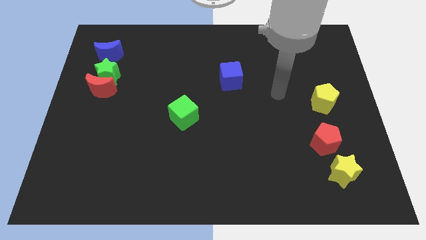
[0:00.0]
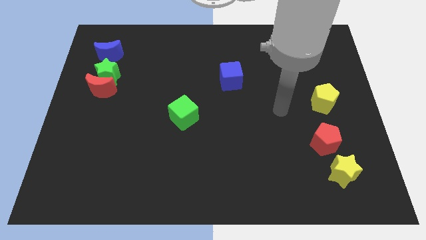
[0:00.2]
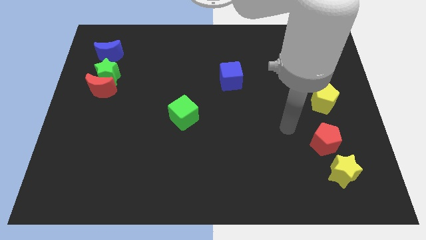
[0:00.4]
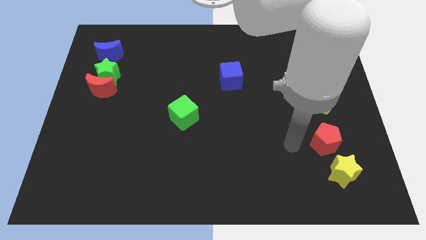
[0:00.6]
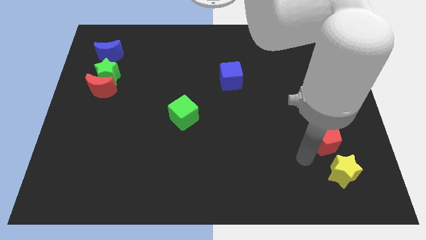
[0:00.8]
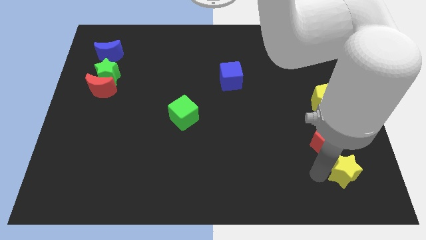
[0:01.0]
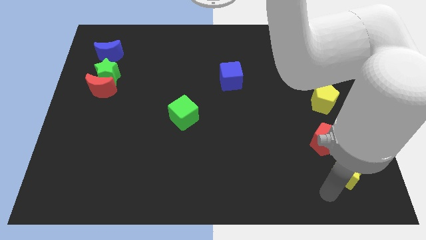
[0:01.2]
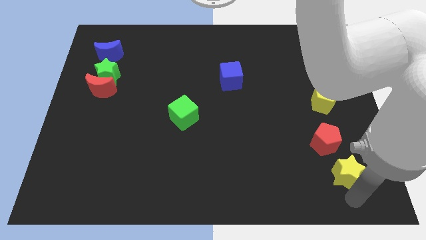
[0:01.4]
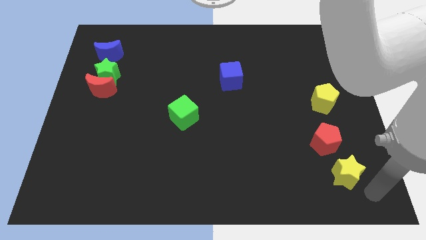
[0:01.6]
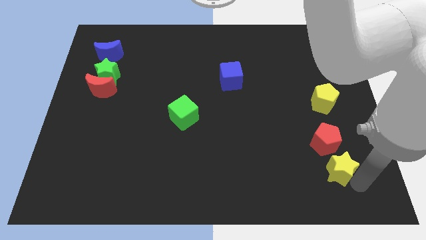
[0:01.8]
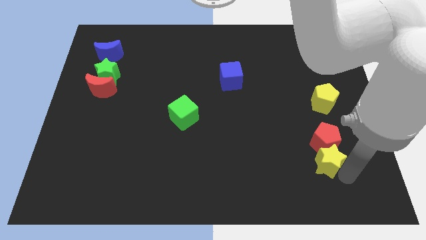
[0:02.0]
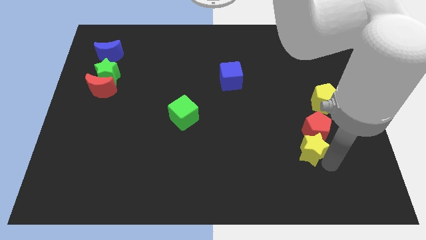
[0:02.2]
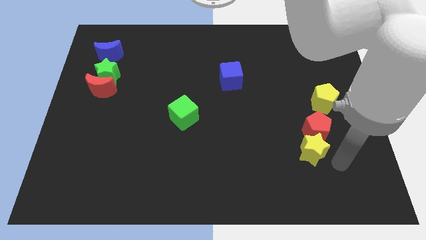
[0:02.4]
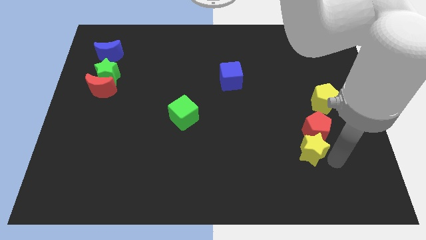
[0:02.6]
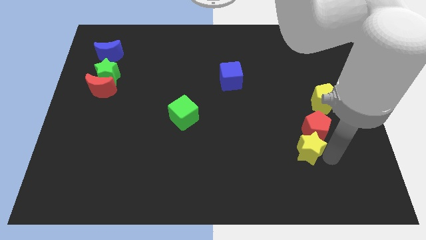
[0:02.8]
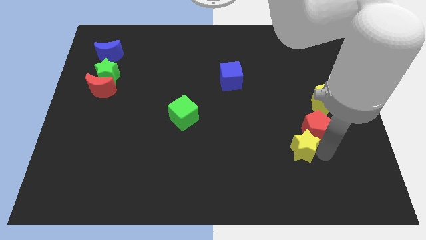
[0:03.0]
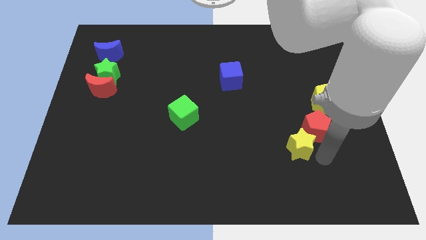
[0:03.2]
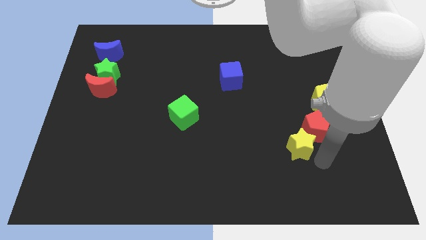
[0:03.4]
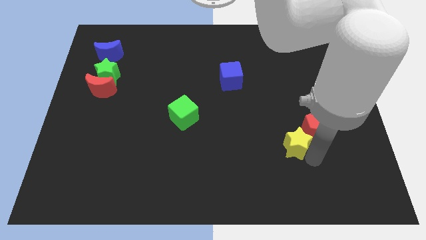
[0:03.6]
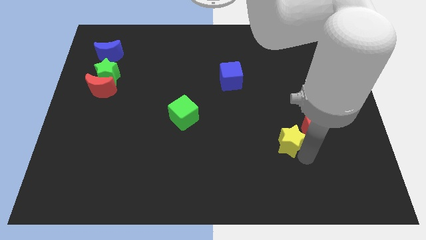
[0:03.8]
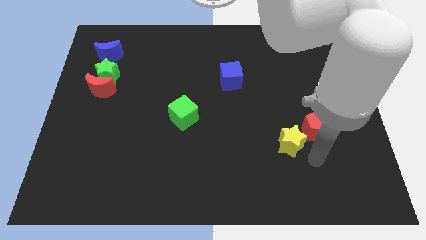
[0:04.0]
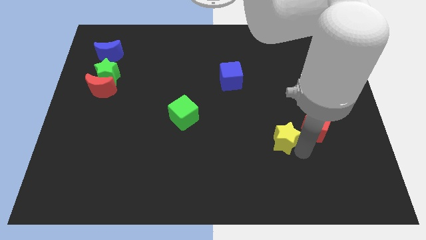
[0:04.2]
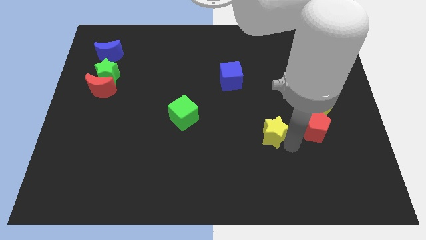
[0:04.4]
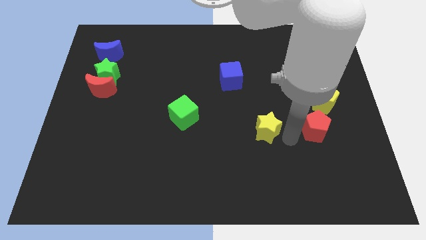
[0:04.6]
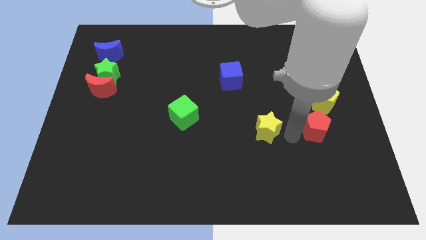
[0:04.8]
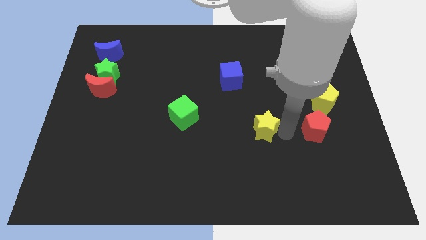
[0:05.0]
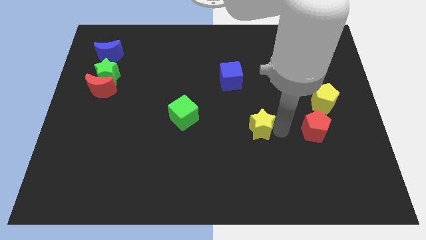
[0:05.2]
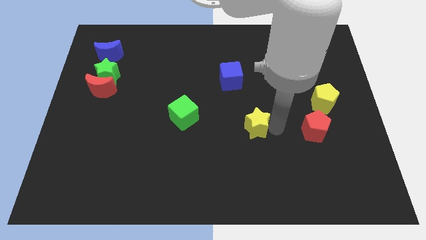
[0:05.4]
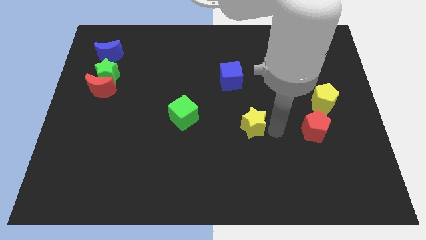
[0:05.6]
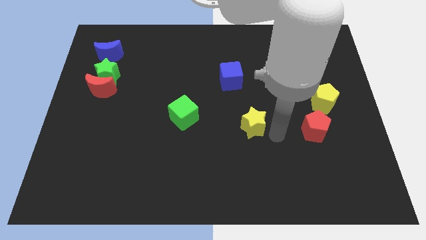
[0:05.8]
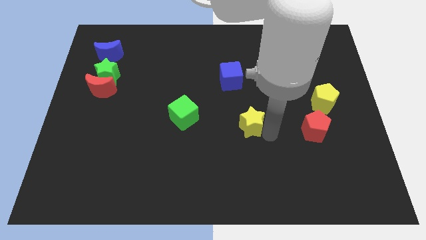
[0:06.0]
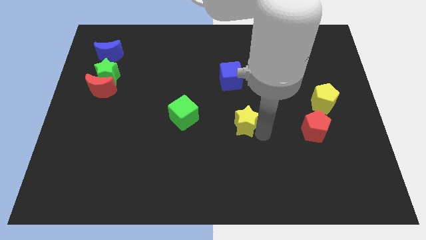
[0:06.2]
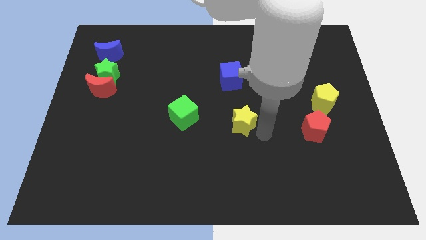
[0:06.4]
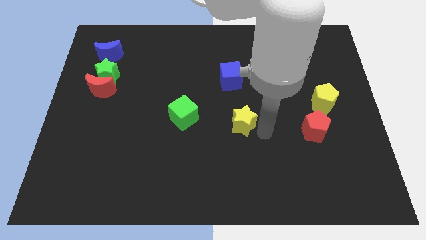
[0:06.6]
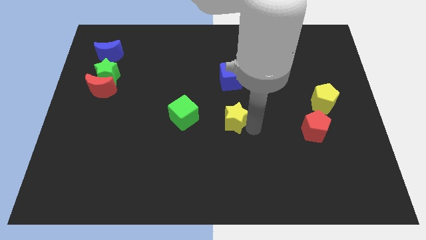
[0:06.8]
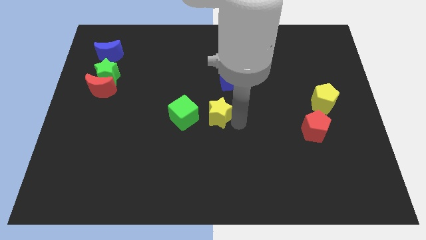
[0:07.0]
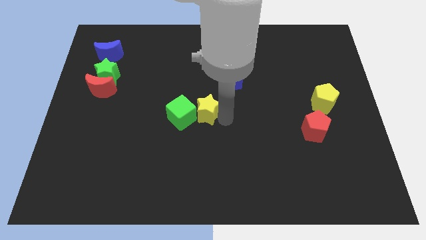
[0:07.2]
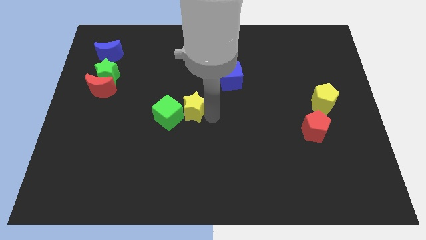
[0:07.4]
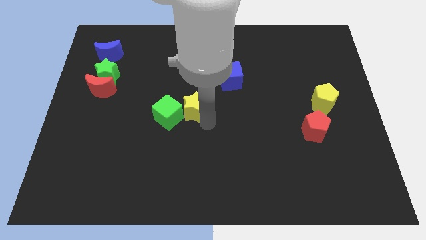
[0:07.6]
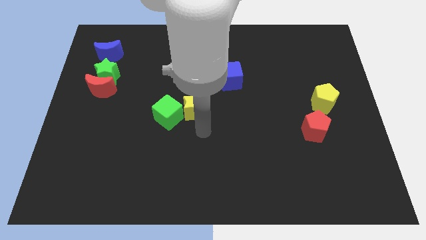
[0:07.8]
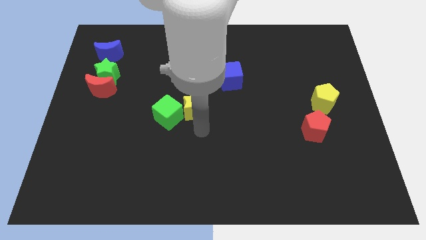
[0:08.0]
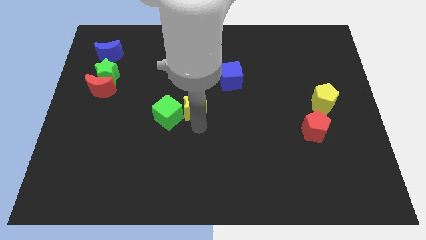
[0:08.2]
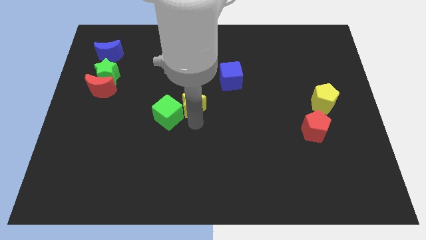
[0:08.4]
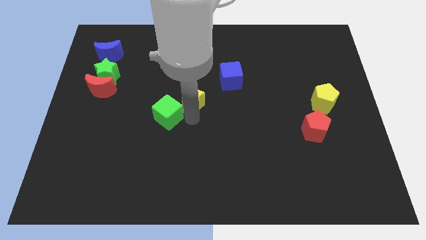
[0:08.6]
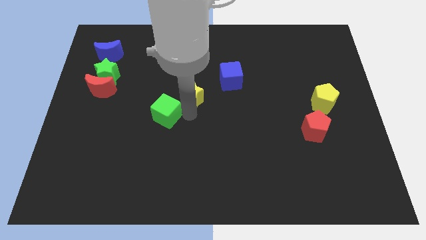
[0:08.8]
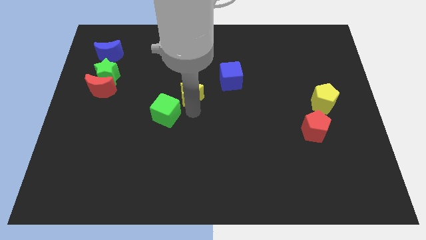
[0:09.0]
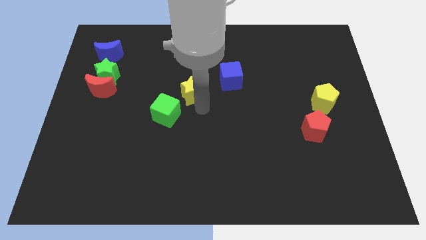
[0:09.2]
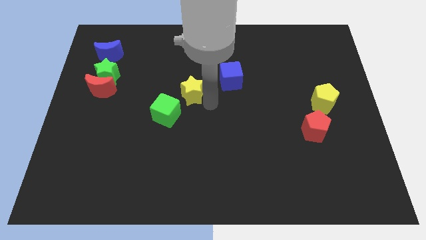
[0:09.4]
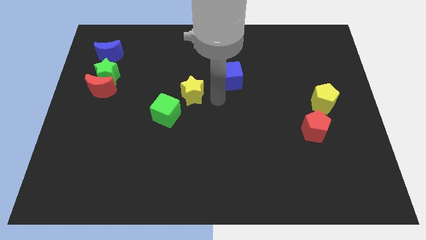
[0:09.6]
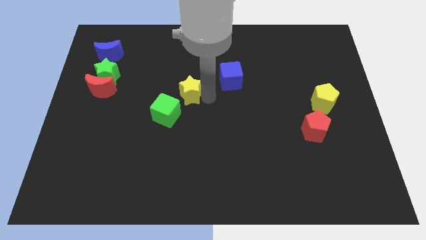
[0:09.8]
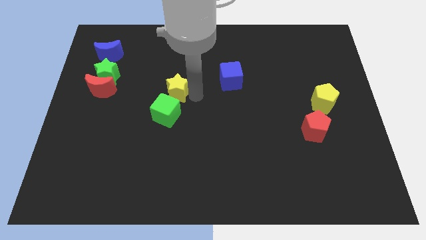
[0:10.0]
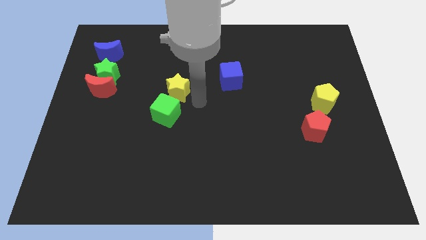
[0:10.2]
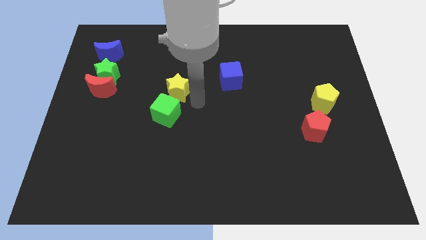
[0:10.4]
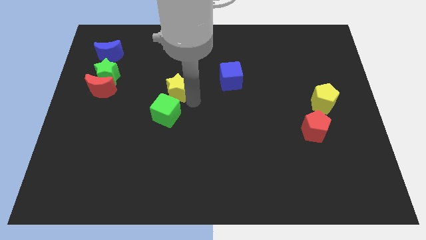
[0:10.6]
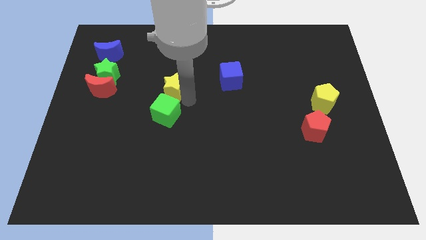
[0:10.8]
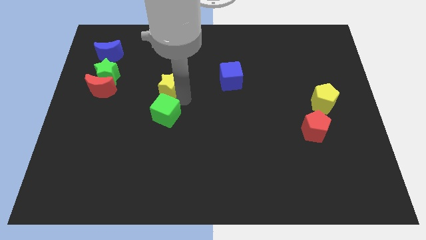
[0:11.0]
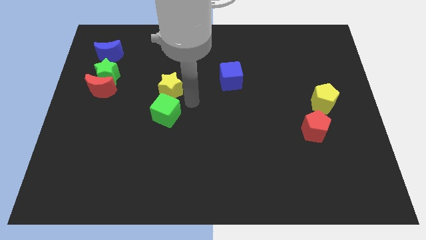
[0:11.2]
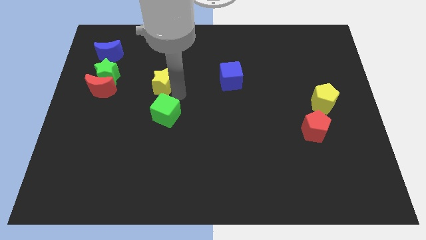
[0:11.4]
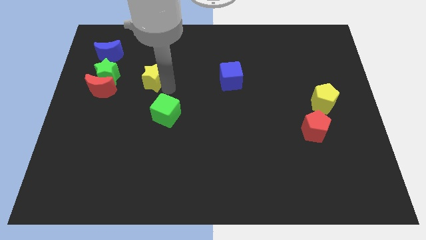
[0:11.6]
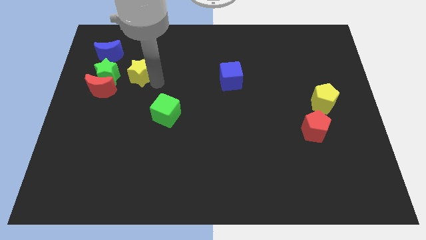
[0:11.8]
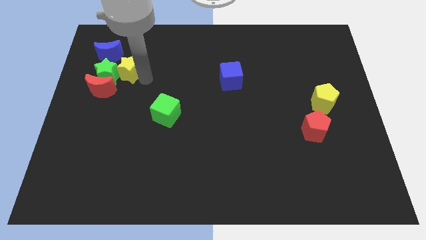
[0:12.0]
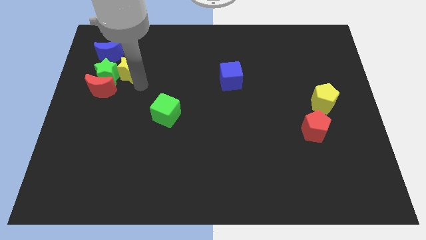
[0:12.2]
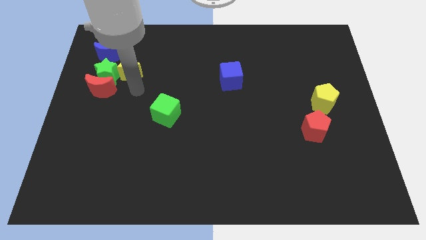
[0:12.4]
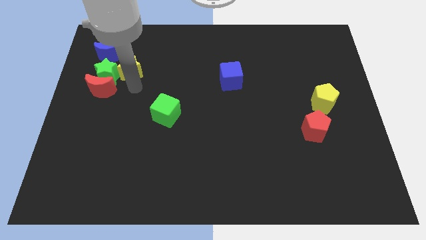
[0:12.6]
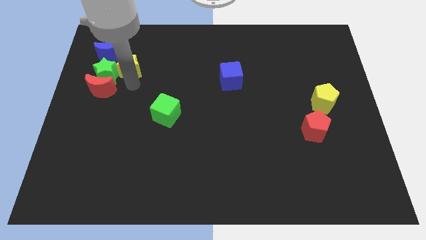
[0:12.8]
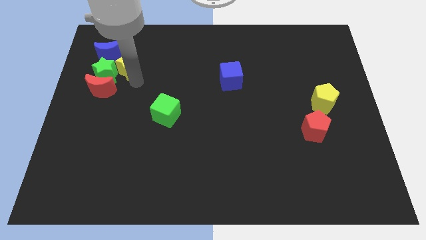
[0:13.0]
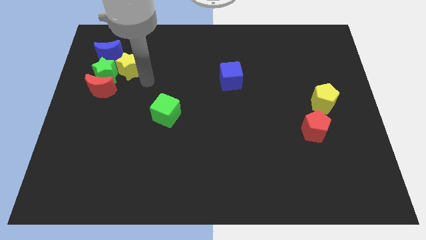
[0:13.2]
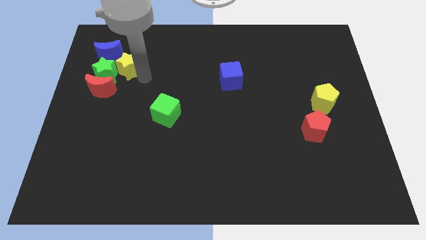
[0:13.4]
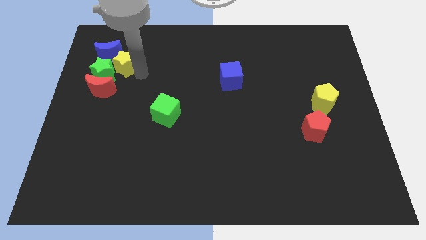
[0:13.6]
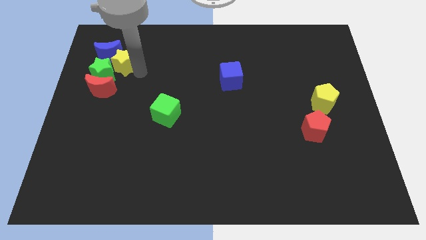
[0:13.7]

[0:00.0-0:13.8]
move the yellow star to the blue moon
